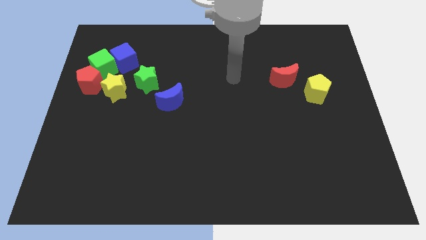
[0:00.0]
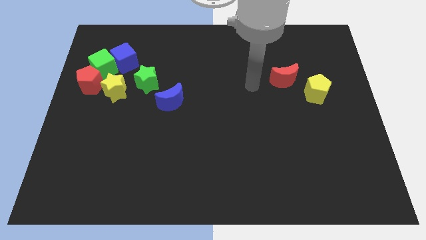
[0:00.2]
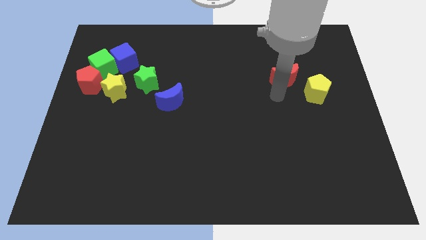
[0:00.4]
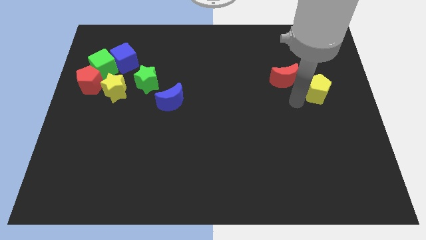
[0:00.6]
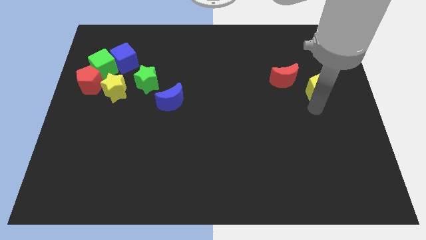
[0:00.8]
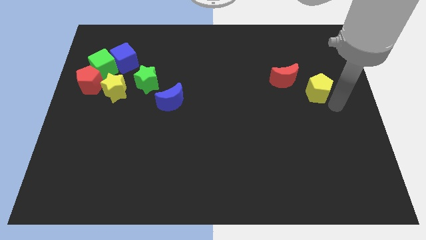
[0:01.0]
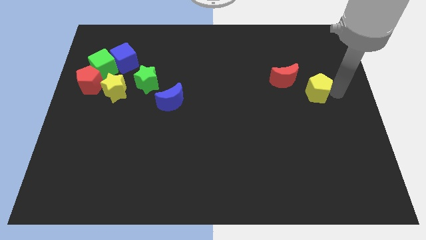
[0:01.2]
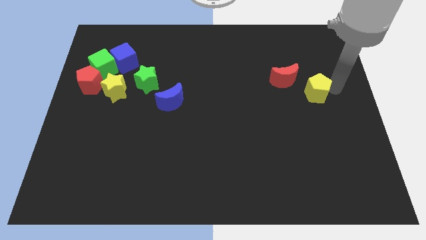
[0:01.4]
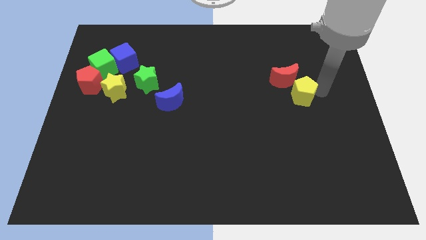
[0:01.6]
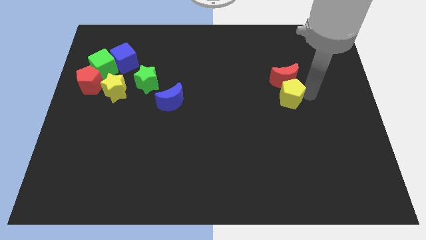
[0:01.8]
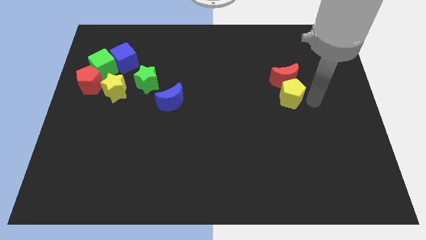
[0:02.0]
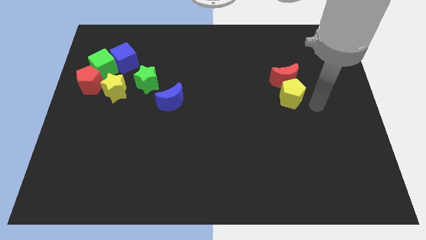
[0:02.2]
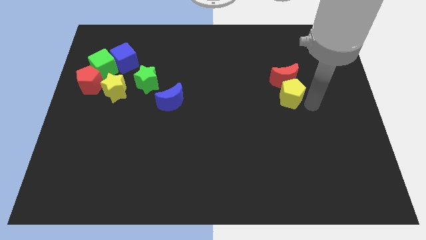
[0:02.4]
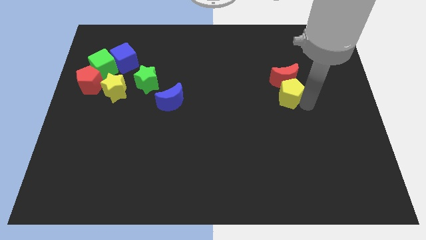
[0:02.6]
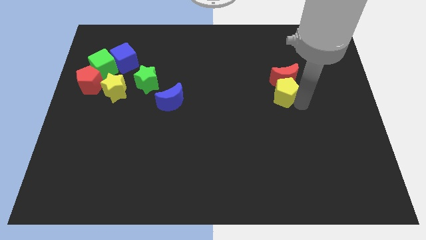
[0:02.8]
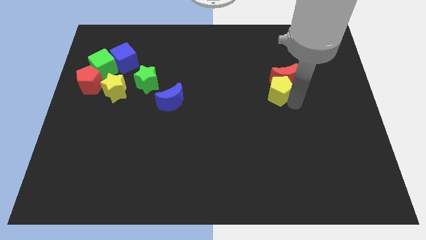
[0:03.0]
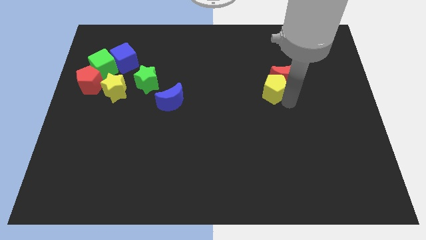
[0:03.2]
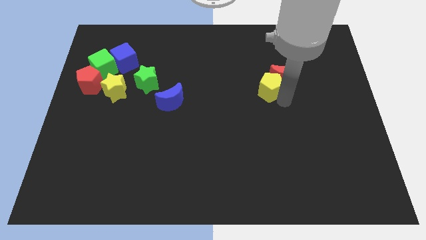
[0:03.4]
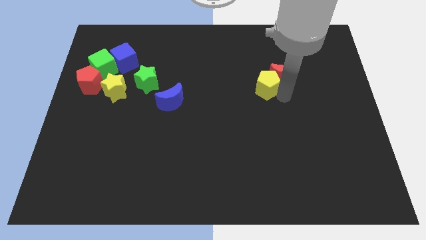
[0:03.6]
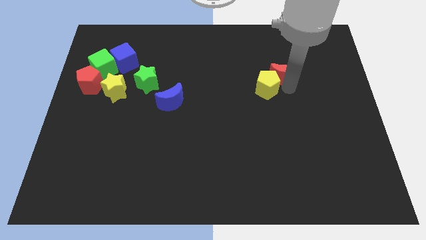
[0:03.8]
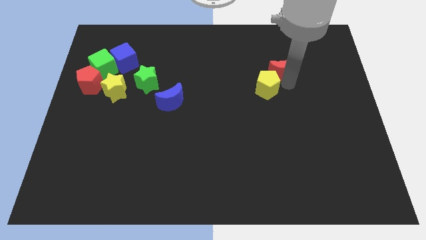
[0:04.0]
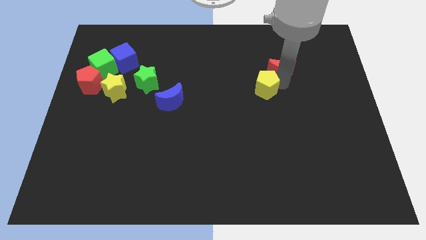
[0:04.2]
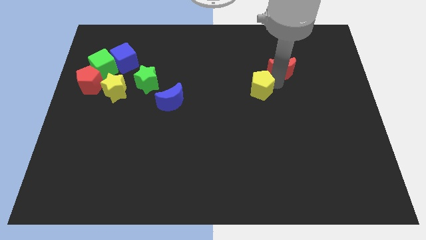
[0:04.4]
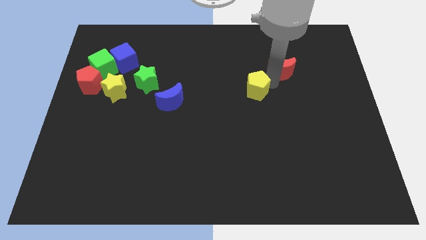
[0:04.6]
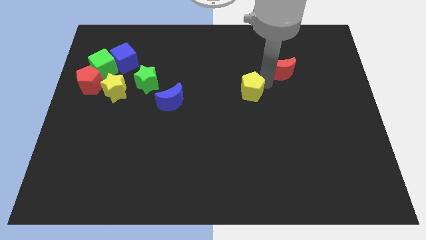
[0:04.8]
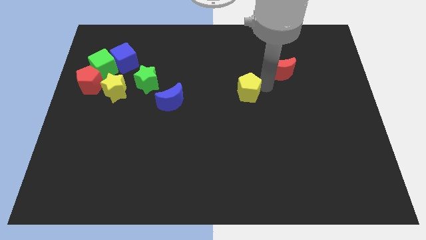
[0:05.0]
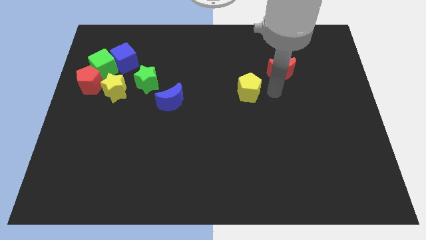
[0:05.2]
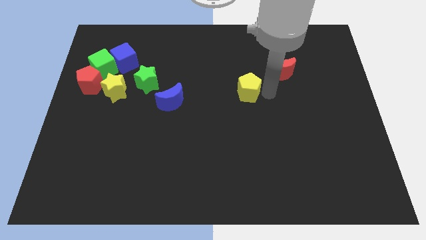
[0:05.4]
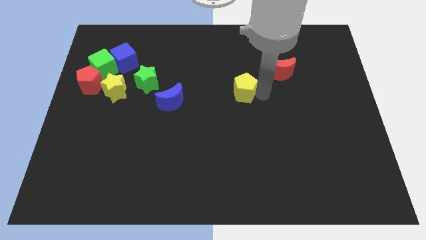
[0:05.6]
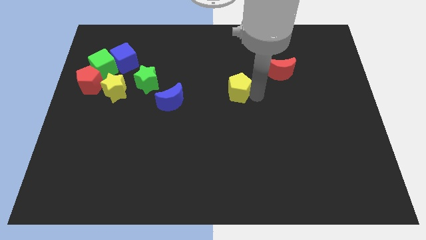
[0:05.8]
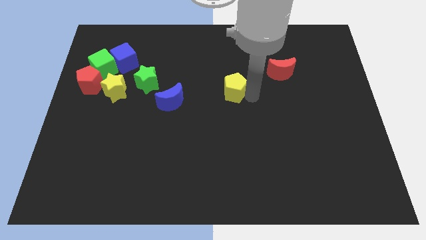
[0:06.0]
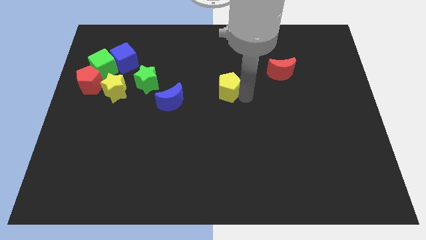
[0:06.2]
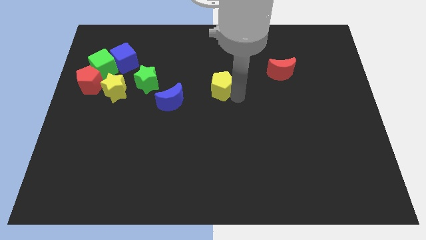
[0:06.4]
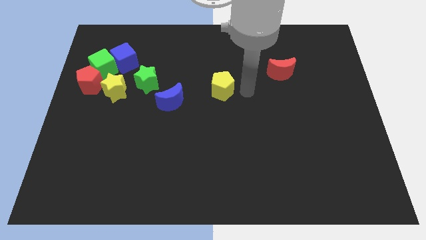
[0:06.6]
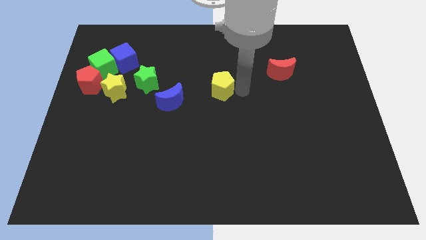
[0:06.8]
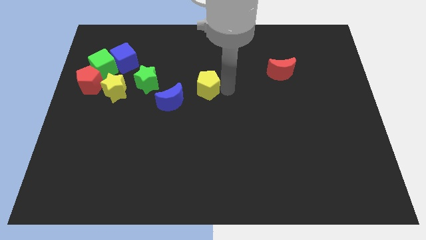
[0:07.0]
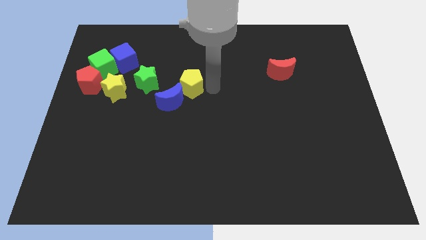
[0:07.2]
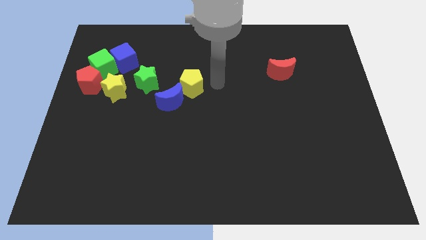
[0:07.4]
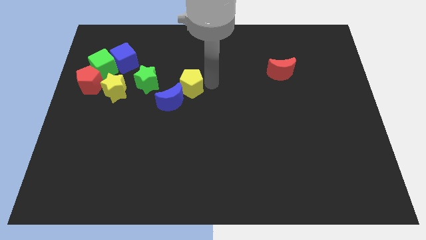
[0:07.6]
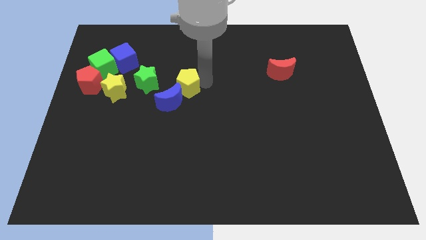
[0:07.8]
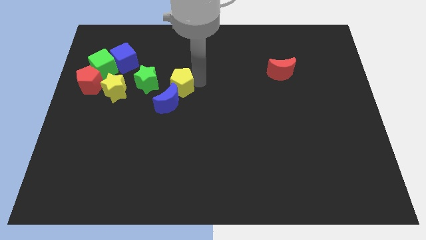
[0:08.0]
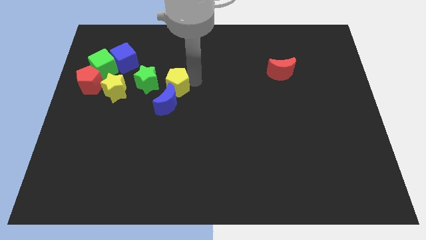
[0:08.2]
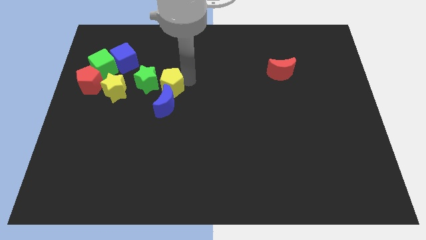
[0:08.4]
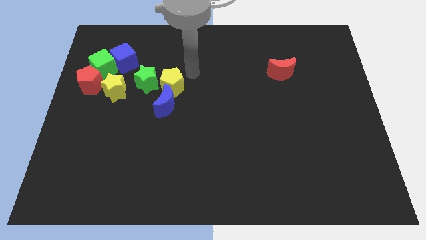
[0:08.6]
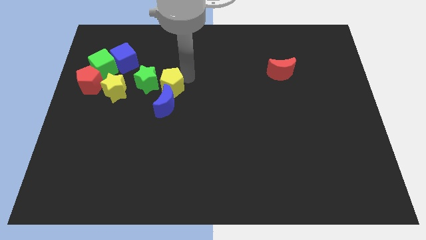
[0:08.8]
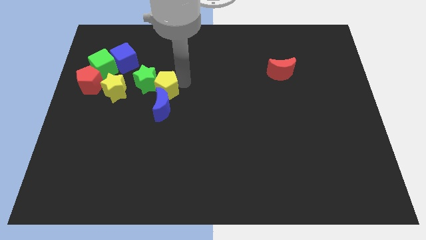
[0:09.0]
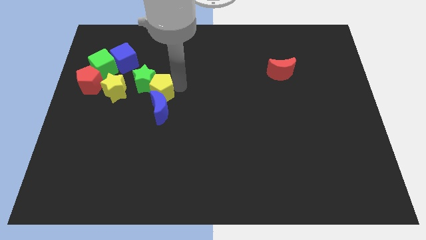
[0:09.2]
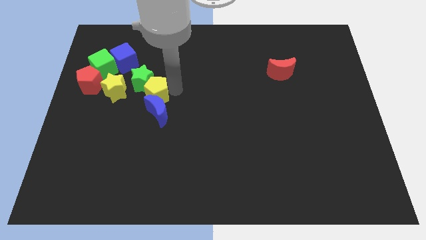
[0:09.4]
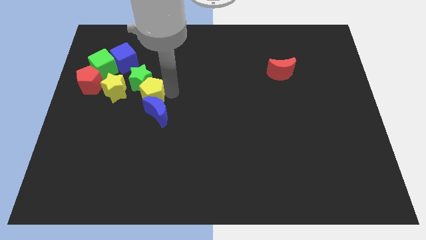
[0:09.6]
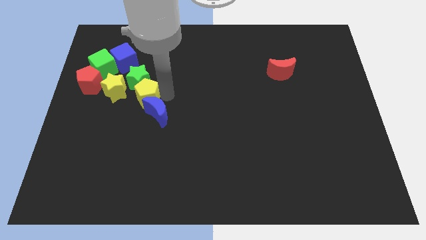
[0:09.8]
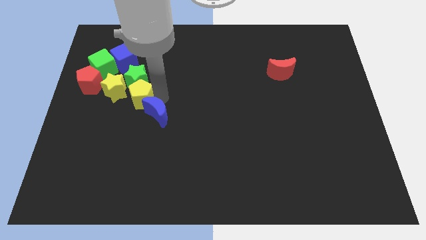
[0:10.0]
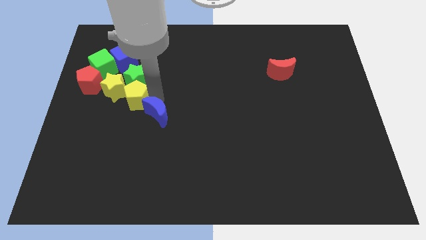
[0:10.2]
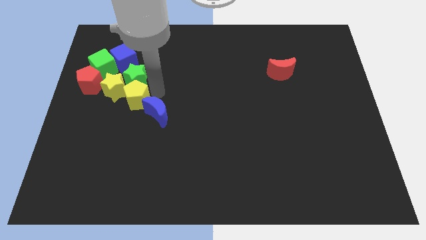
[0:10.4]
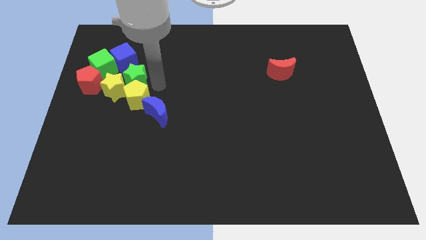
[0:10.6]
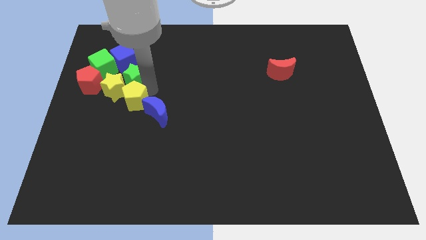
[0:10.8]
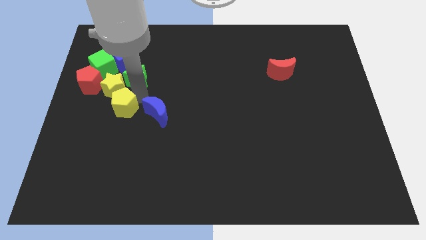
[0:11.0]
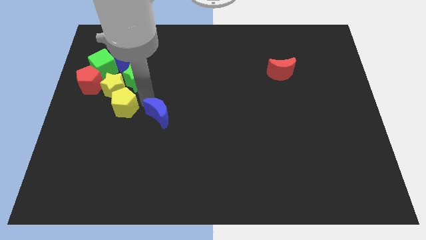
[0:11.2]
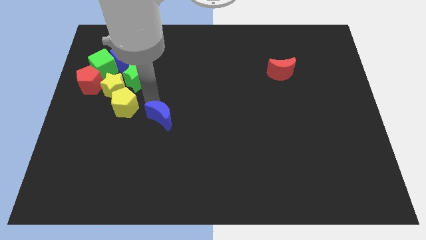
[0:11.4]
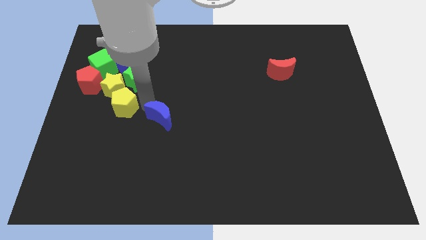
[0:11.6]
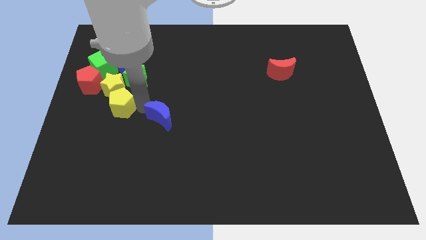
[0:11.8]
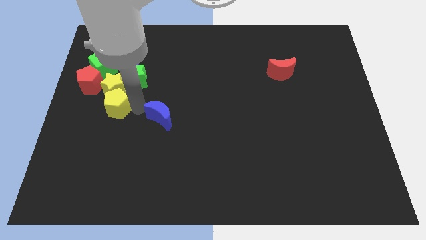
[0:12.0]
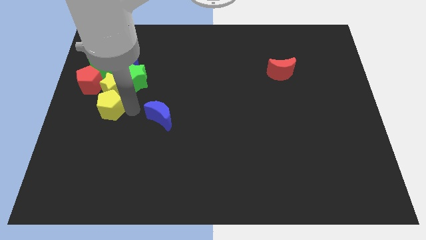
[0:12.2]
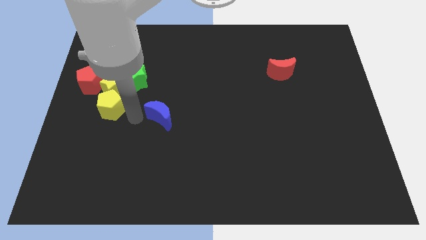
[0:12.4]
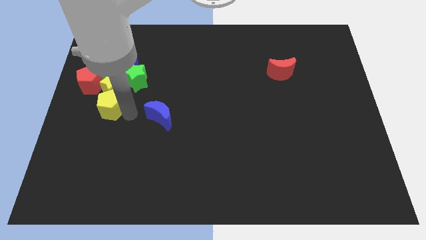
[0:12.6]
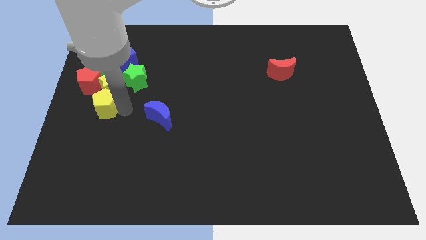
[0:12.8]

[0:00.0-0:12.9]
move the yellow pentagon to the center left
